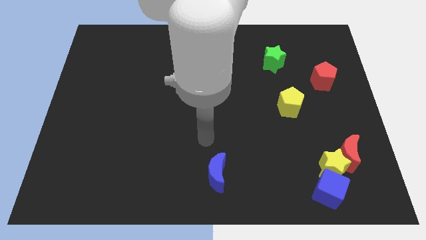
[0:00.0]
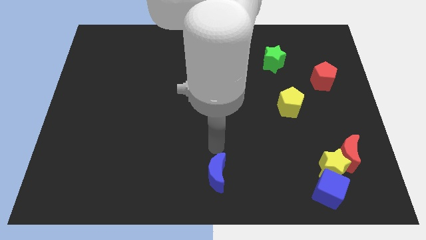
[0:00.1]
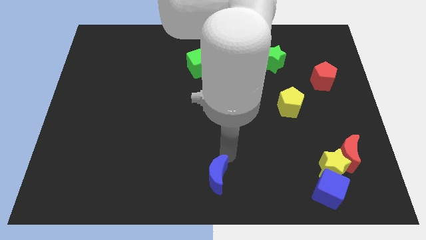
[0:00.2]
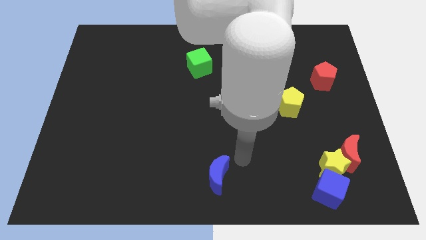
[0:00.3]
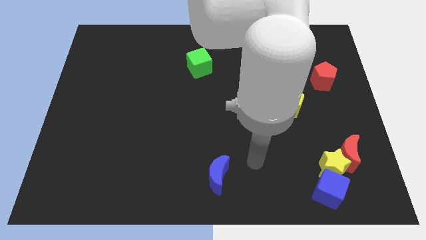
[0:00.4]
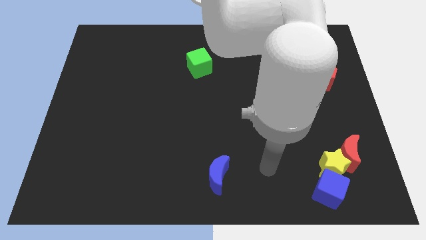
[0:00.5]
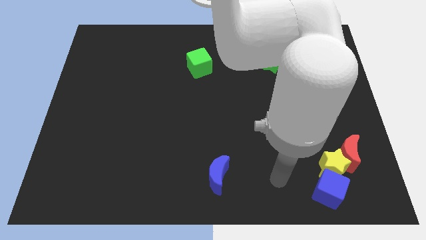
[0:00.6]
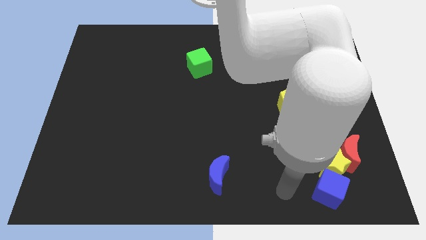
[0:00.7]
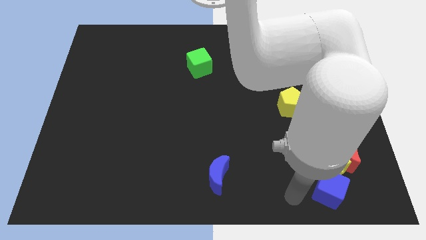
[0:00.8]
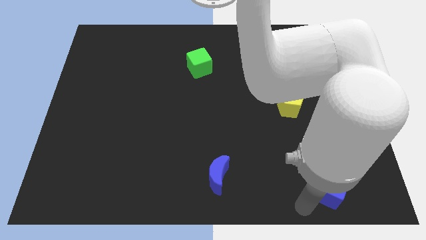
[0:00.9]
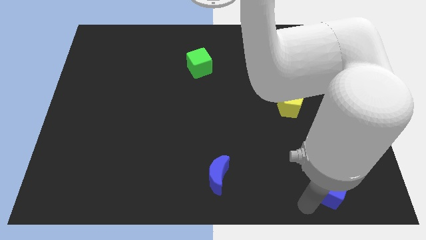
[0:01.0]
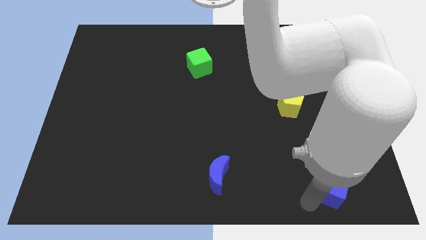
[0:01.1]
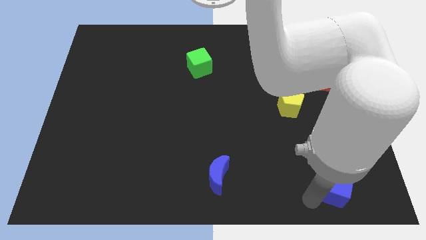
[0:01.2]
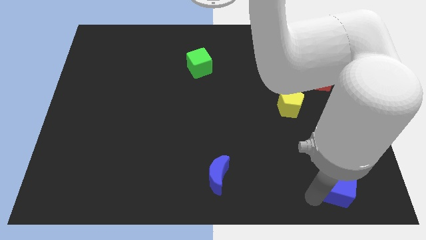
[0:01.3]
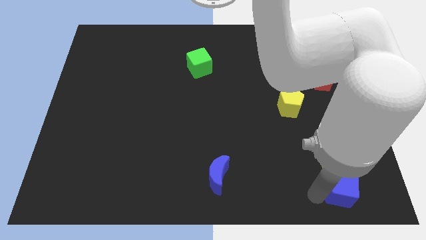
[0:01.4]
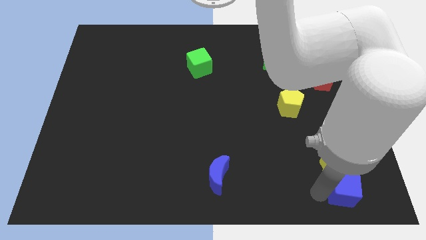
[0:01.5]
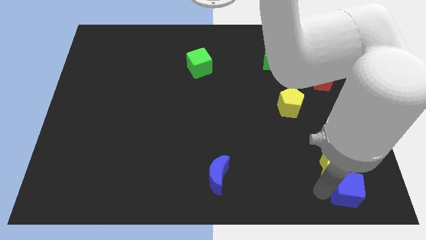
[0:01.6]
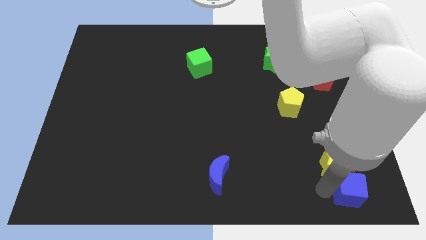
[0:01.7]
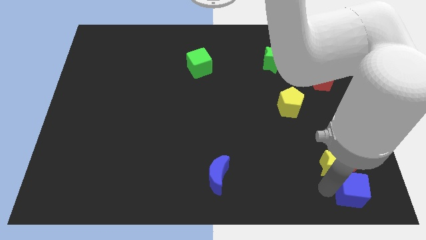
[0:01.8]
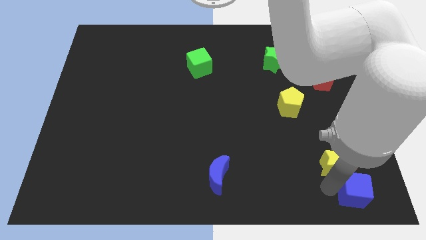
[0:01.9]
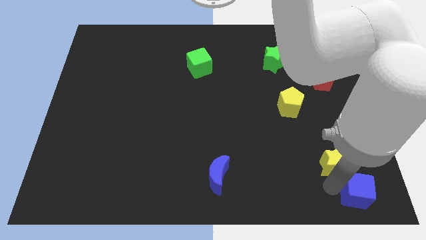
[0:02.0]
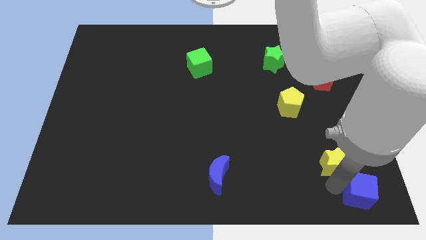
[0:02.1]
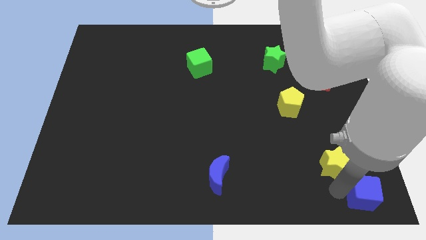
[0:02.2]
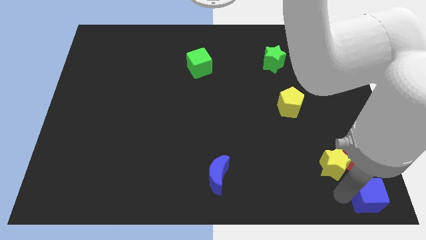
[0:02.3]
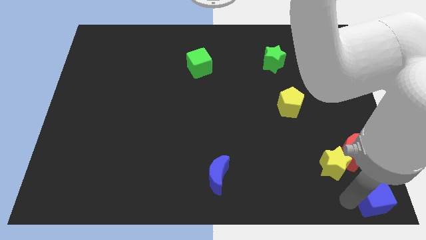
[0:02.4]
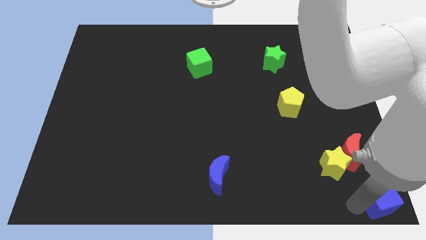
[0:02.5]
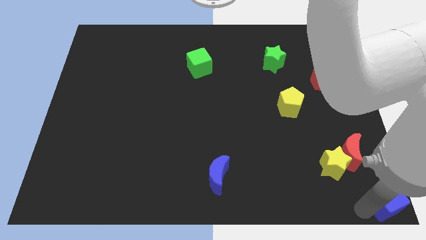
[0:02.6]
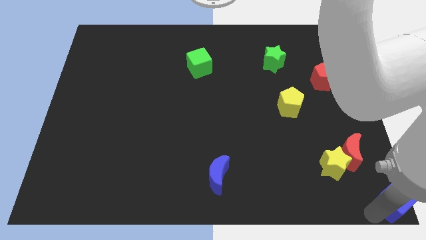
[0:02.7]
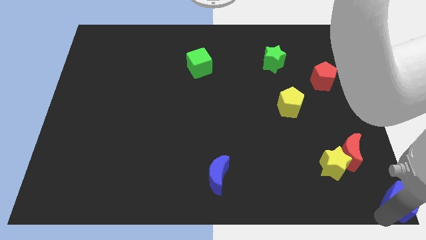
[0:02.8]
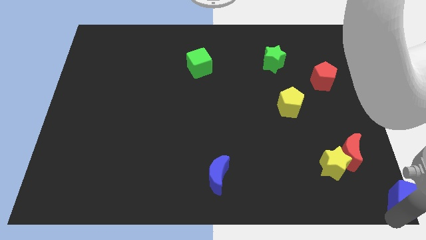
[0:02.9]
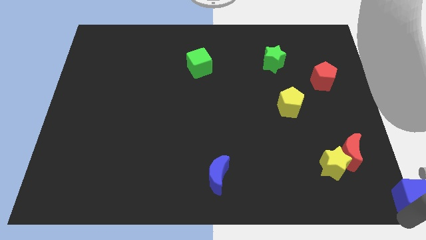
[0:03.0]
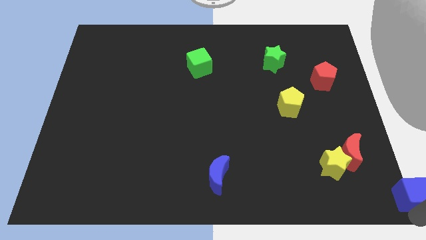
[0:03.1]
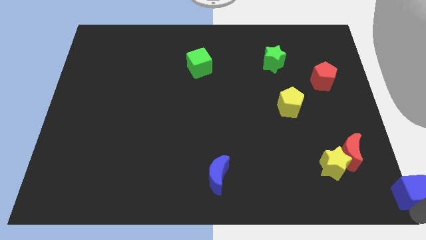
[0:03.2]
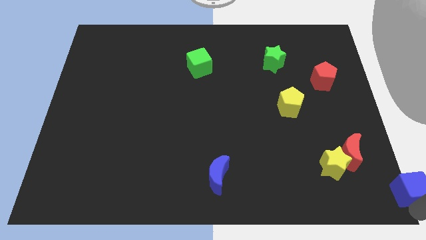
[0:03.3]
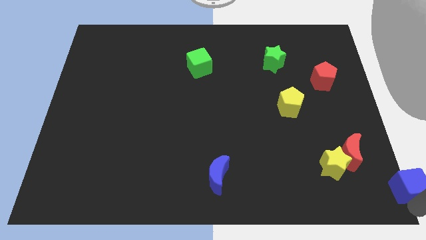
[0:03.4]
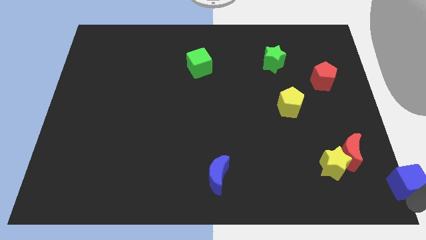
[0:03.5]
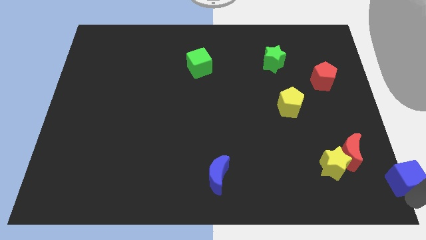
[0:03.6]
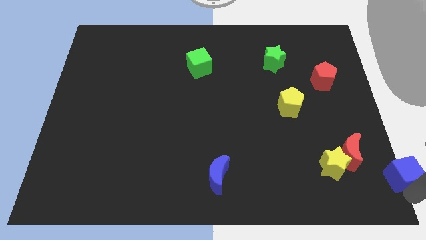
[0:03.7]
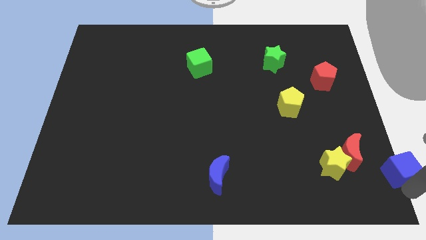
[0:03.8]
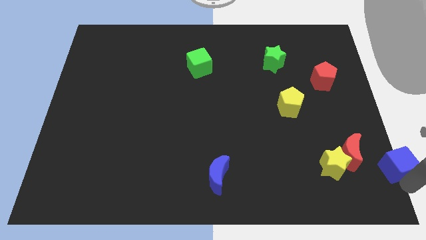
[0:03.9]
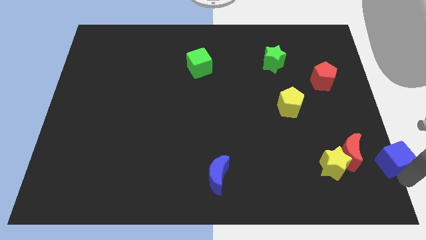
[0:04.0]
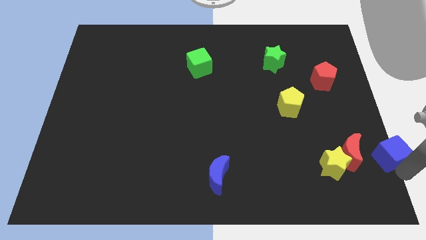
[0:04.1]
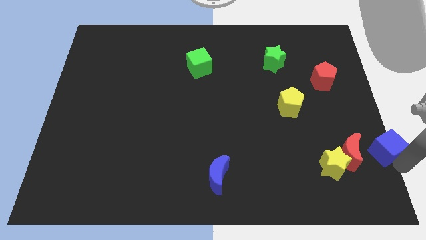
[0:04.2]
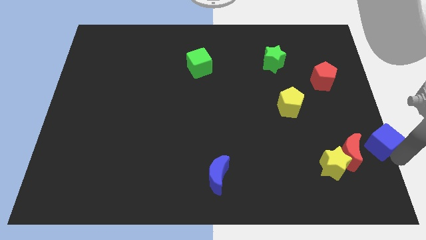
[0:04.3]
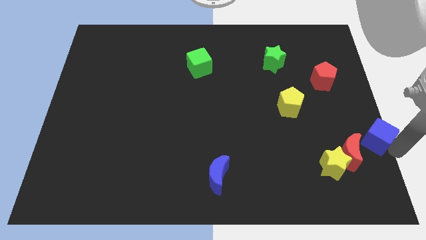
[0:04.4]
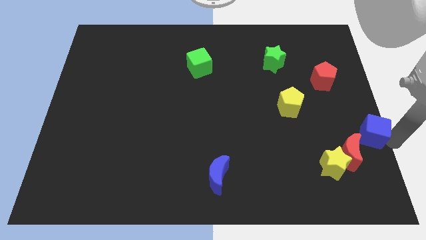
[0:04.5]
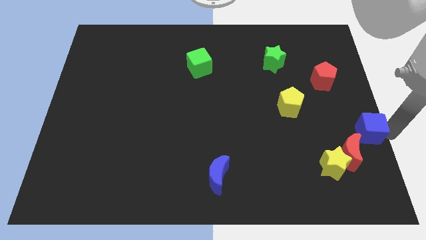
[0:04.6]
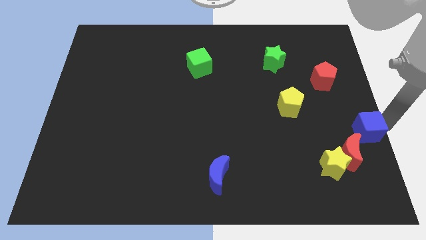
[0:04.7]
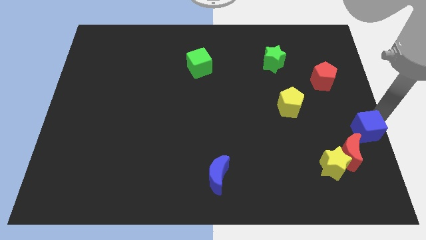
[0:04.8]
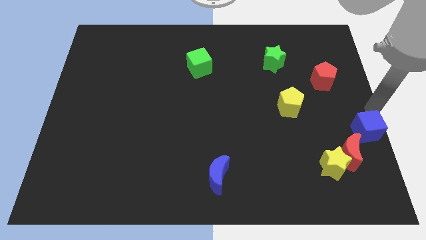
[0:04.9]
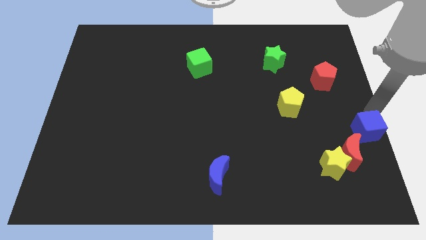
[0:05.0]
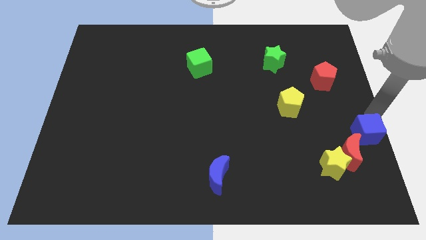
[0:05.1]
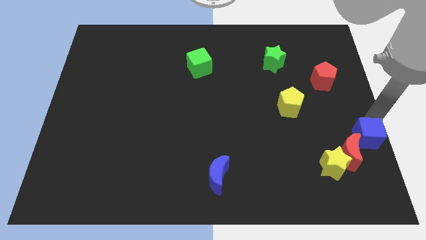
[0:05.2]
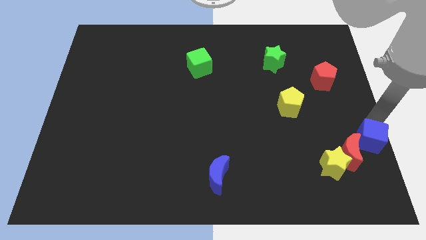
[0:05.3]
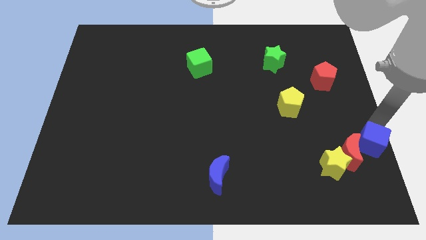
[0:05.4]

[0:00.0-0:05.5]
move the blue cube next to the red moon

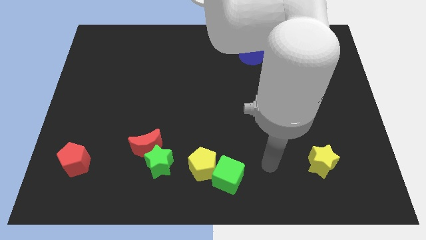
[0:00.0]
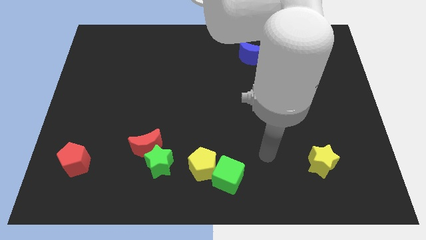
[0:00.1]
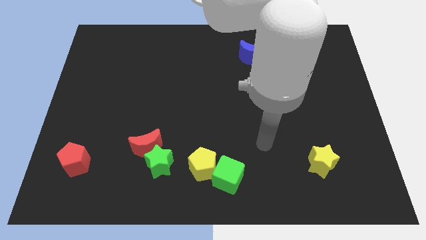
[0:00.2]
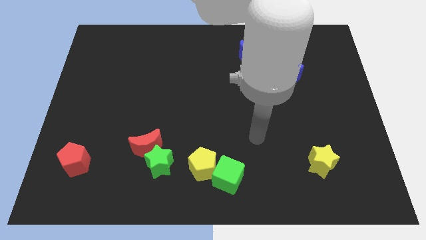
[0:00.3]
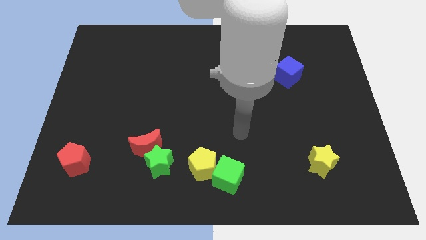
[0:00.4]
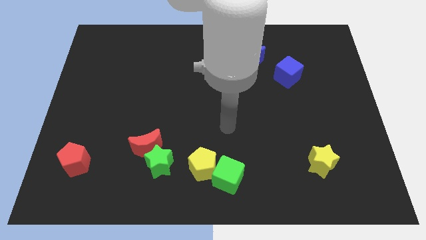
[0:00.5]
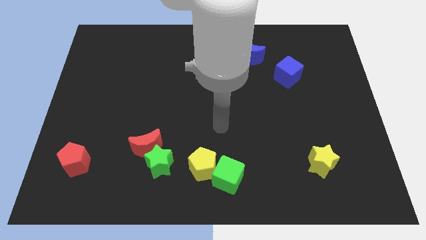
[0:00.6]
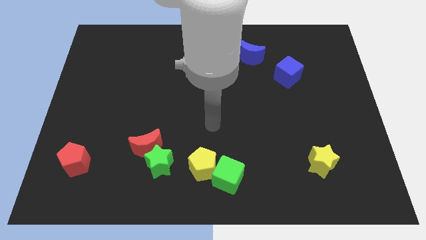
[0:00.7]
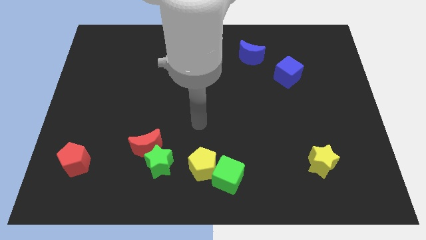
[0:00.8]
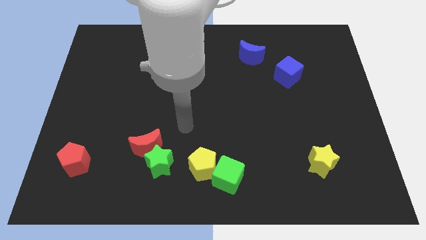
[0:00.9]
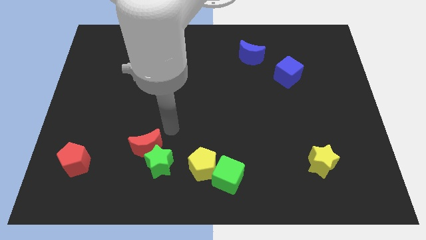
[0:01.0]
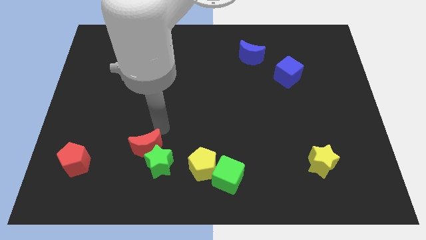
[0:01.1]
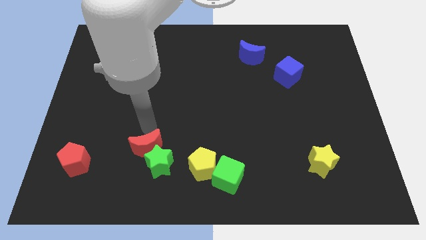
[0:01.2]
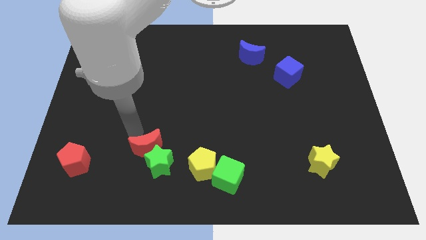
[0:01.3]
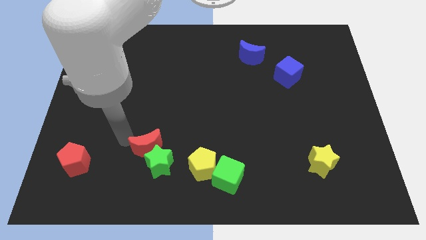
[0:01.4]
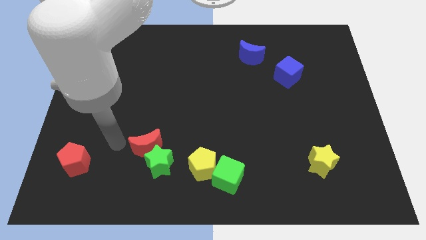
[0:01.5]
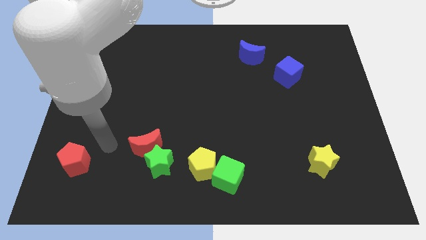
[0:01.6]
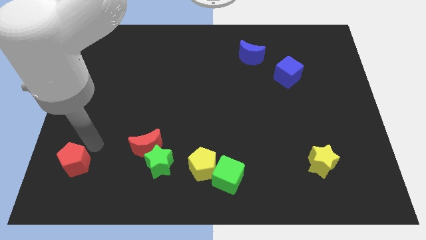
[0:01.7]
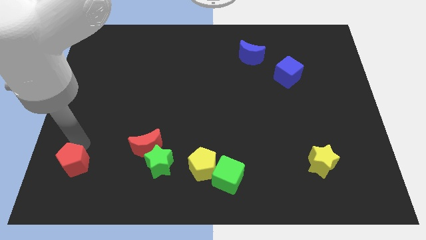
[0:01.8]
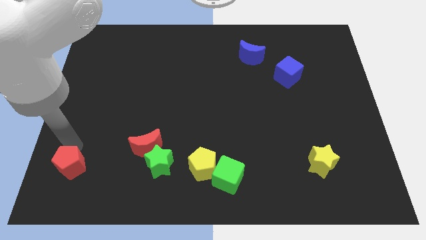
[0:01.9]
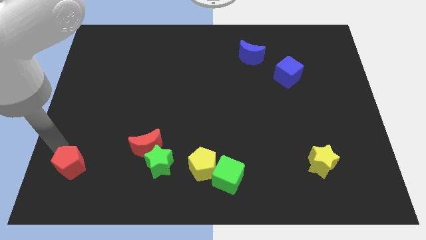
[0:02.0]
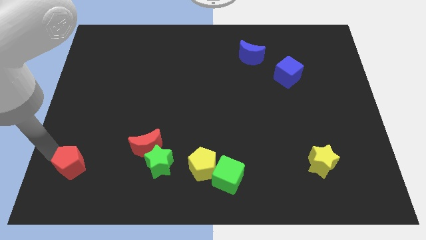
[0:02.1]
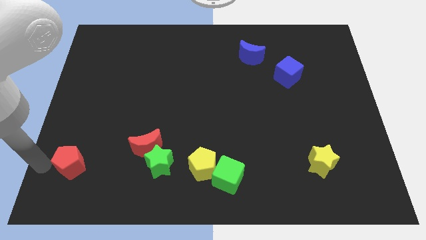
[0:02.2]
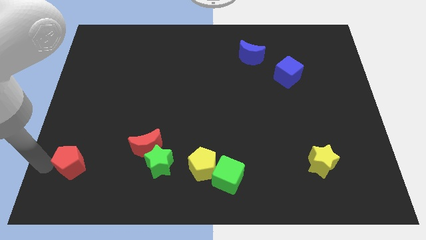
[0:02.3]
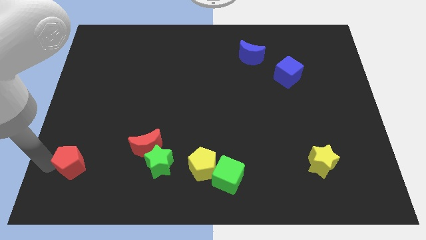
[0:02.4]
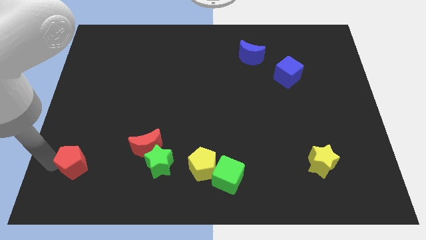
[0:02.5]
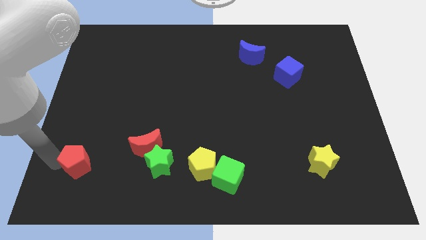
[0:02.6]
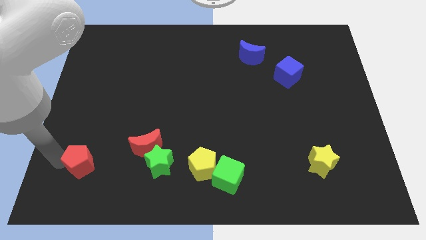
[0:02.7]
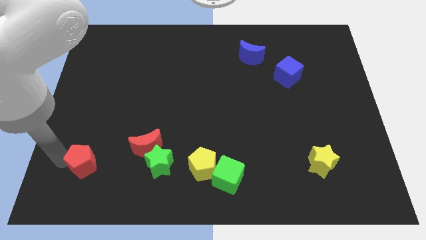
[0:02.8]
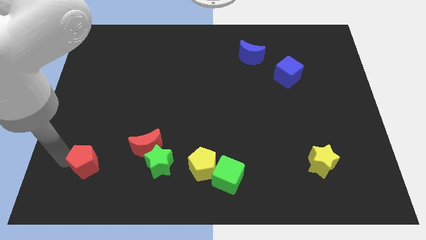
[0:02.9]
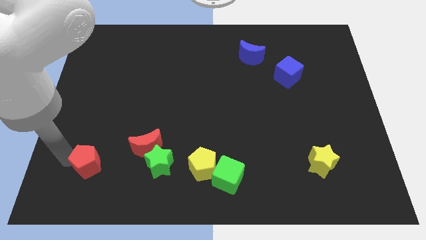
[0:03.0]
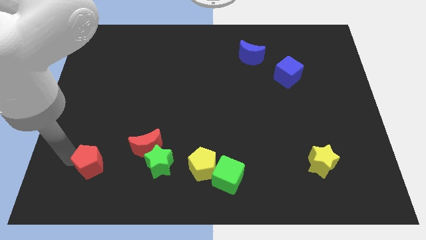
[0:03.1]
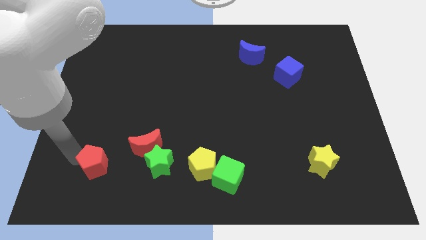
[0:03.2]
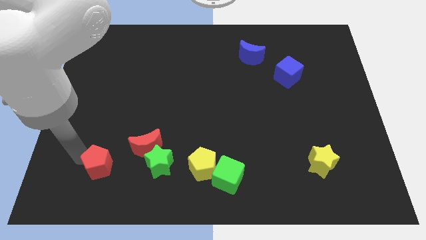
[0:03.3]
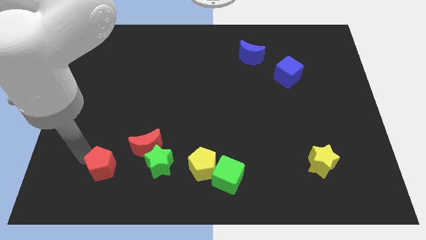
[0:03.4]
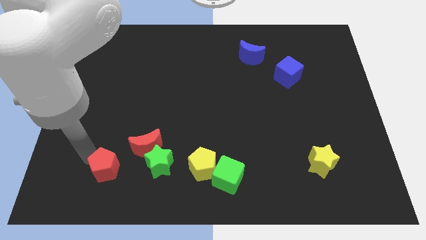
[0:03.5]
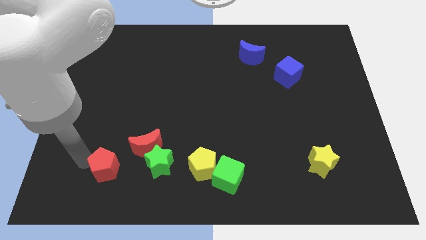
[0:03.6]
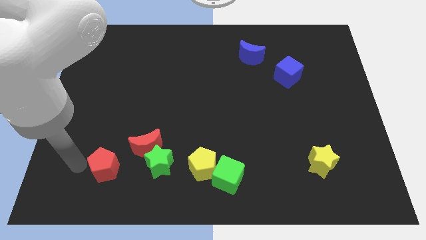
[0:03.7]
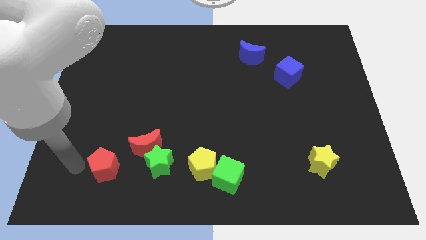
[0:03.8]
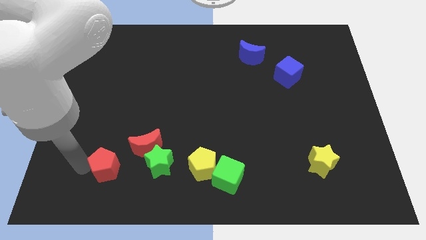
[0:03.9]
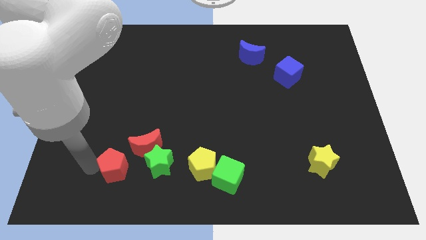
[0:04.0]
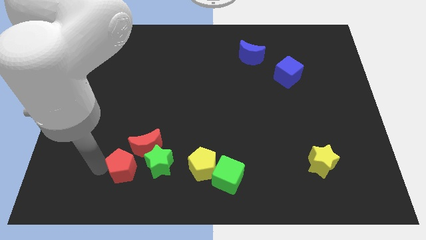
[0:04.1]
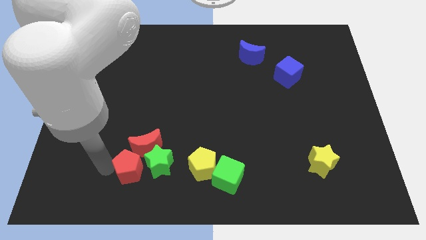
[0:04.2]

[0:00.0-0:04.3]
slide the red pentagon next to the green star
